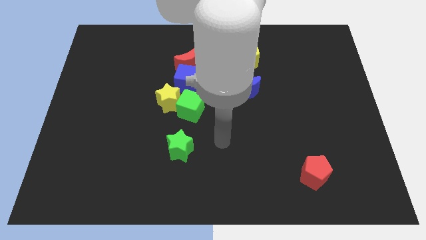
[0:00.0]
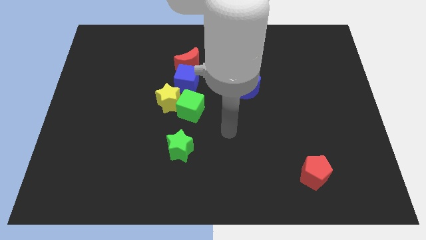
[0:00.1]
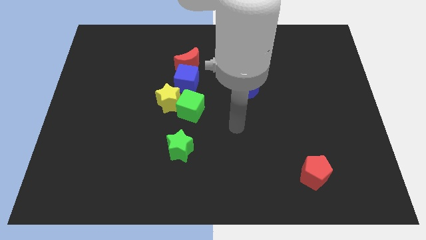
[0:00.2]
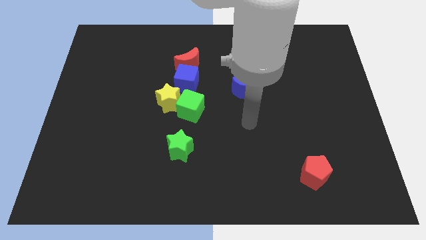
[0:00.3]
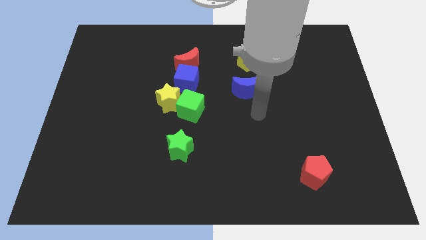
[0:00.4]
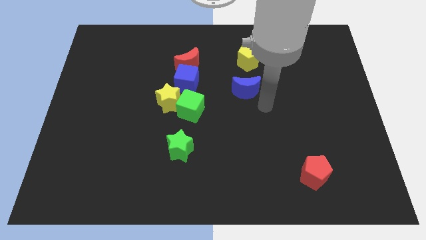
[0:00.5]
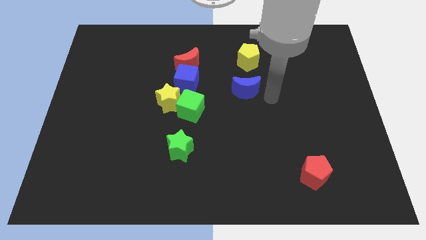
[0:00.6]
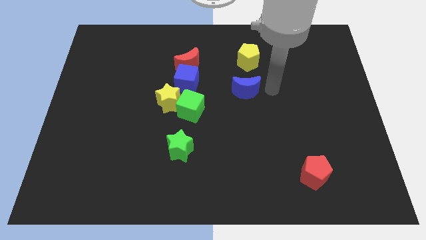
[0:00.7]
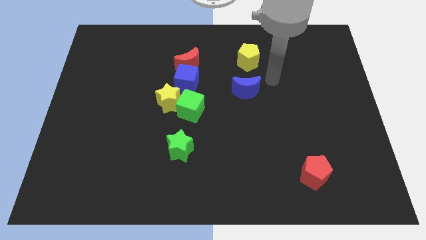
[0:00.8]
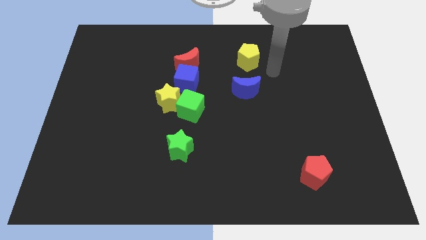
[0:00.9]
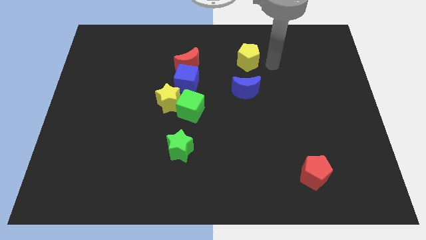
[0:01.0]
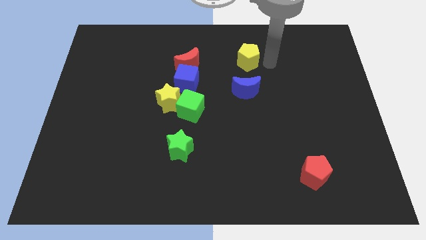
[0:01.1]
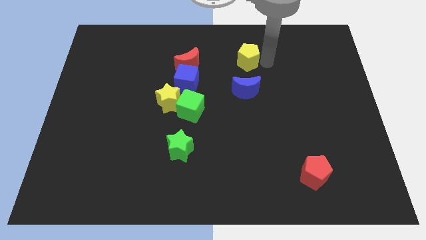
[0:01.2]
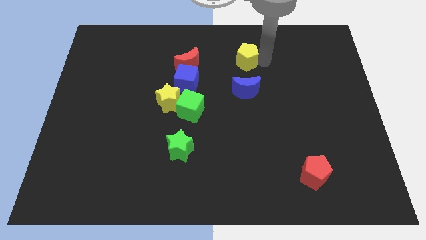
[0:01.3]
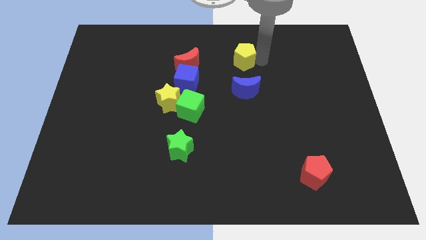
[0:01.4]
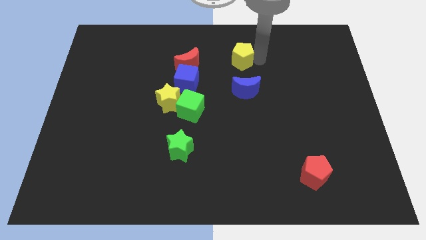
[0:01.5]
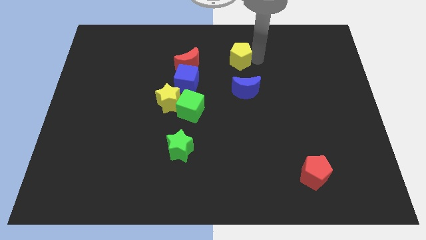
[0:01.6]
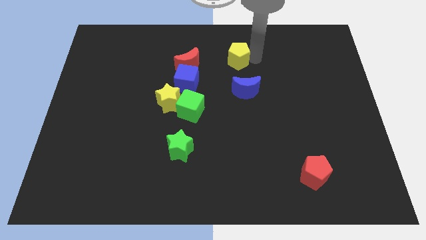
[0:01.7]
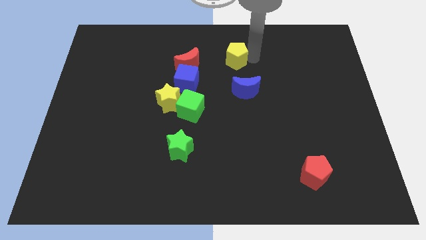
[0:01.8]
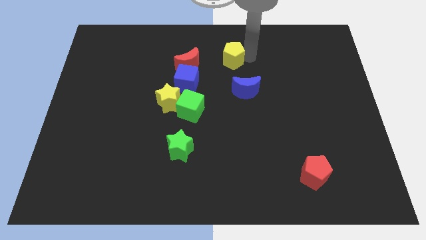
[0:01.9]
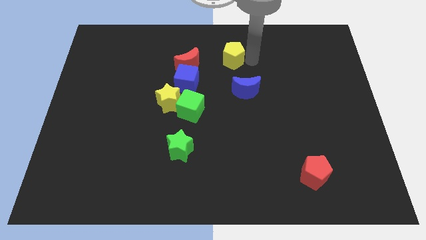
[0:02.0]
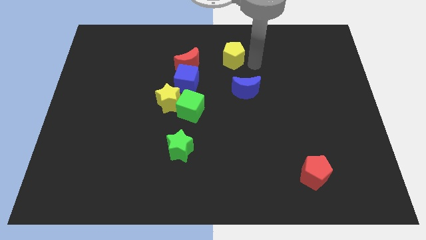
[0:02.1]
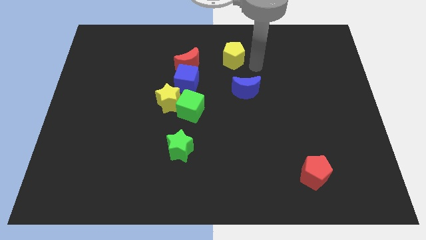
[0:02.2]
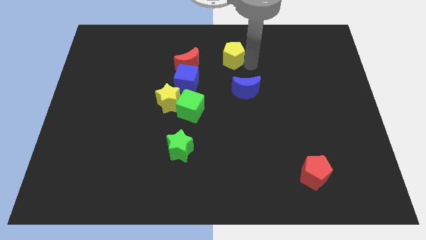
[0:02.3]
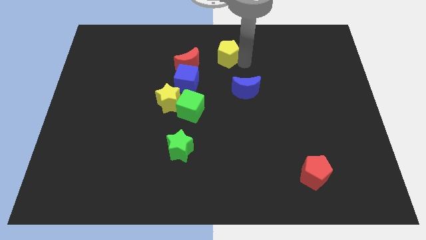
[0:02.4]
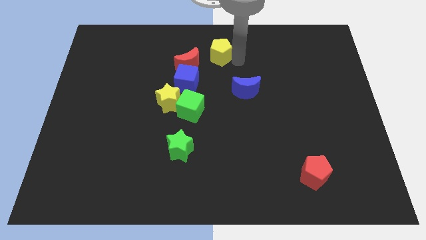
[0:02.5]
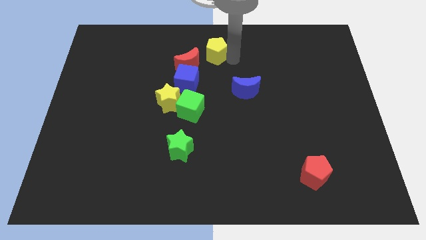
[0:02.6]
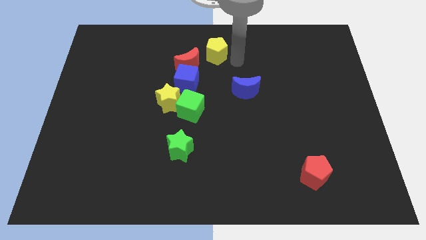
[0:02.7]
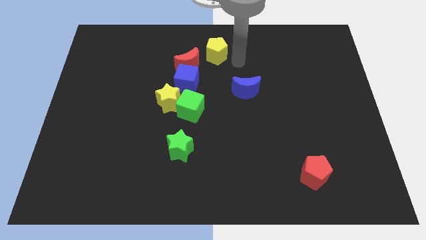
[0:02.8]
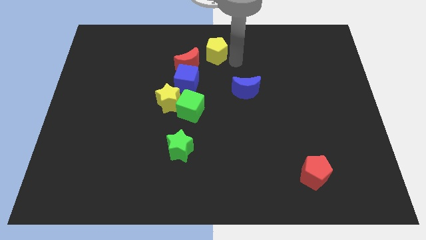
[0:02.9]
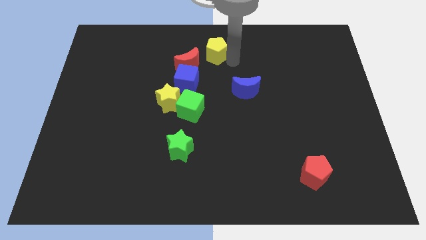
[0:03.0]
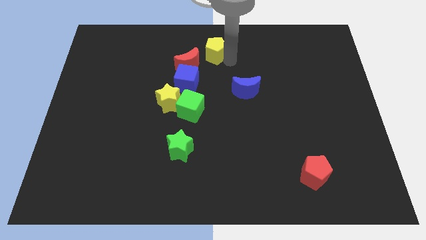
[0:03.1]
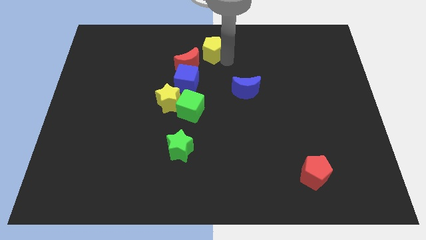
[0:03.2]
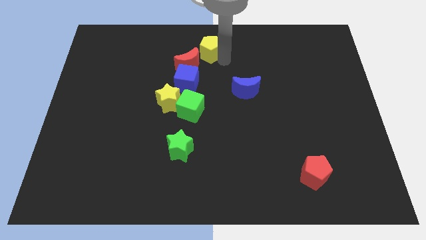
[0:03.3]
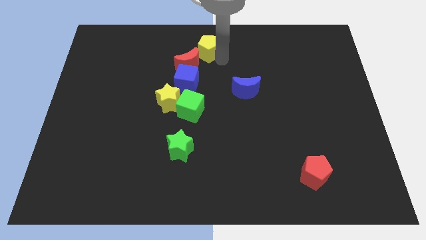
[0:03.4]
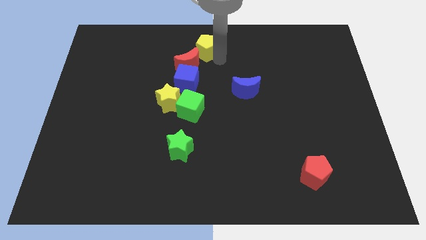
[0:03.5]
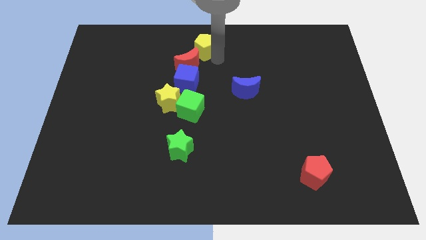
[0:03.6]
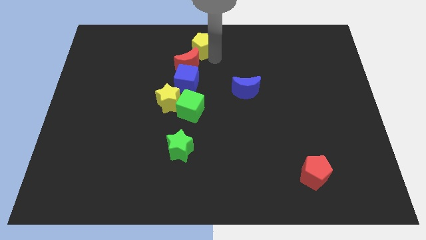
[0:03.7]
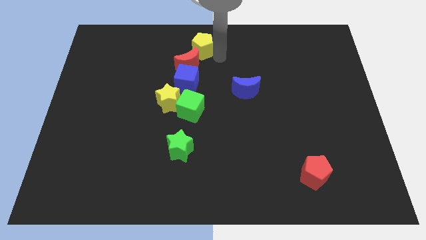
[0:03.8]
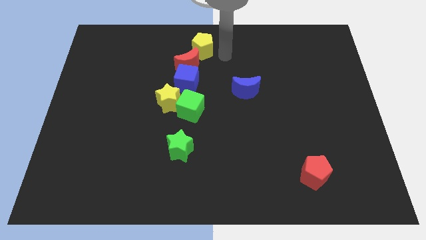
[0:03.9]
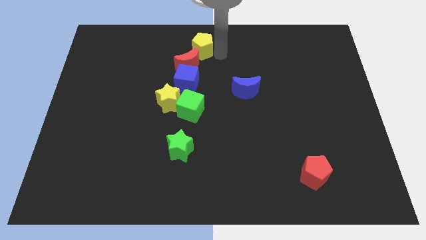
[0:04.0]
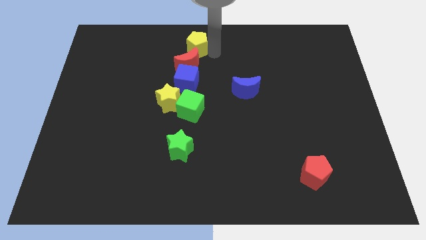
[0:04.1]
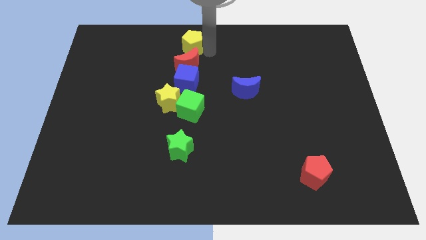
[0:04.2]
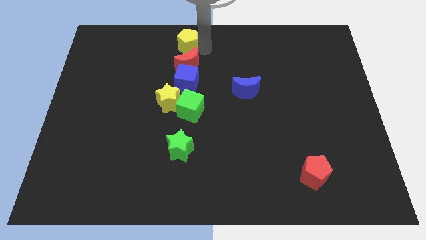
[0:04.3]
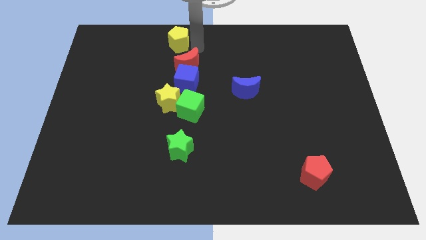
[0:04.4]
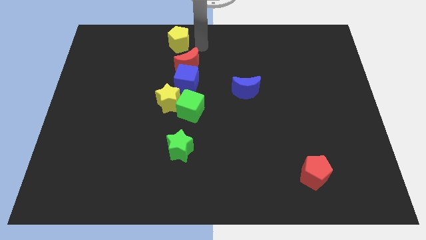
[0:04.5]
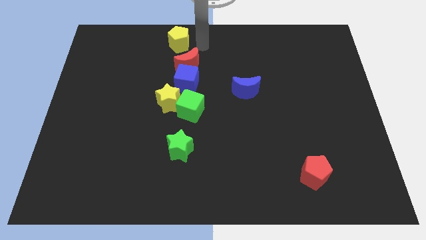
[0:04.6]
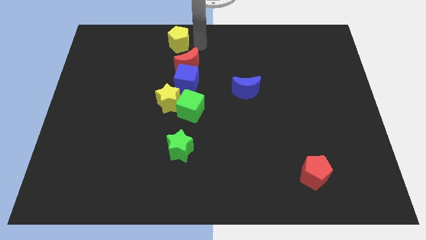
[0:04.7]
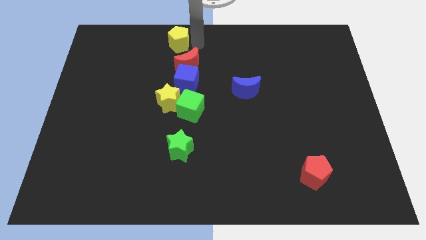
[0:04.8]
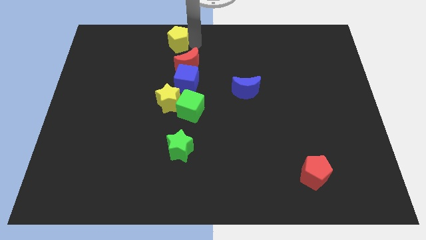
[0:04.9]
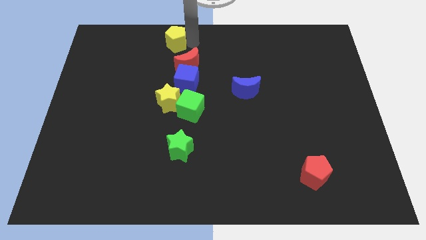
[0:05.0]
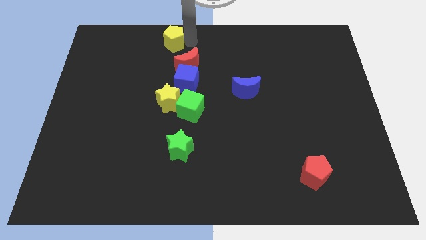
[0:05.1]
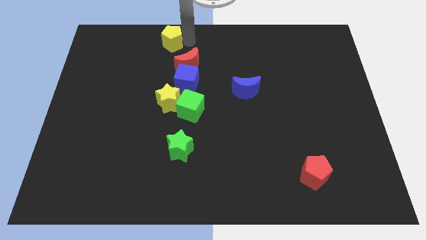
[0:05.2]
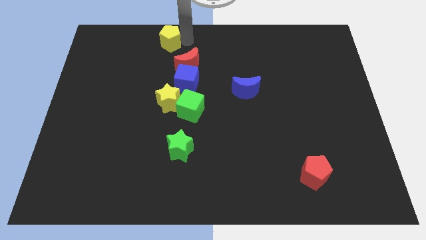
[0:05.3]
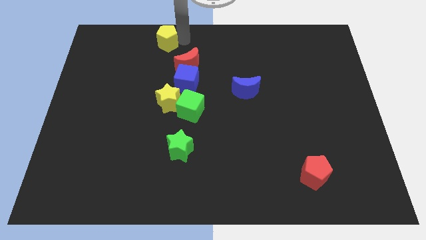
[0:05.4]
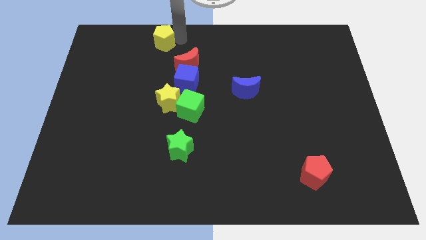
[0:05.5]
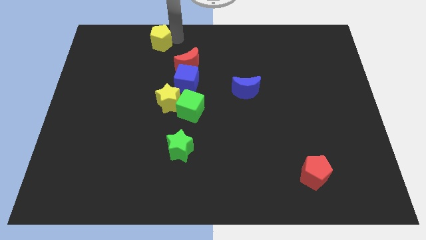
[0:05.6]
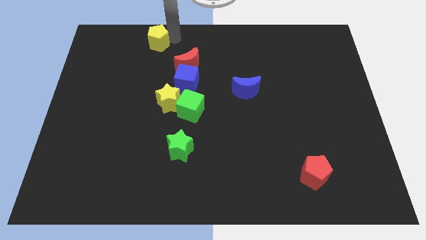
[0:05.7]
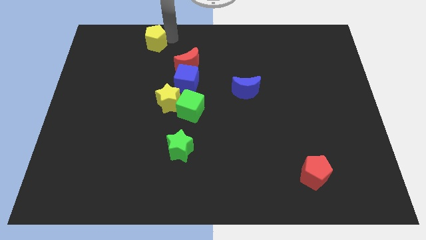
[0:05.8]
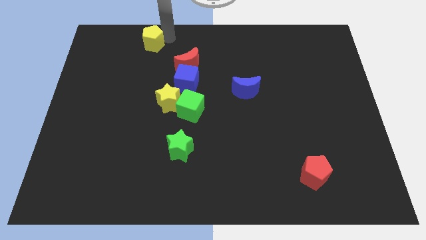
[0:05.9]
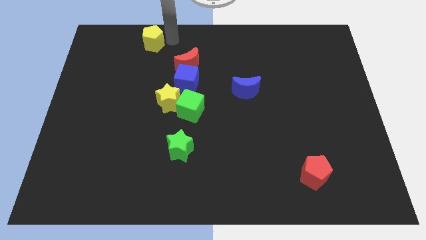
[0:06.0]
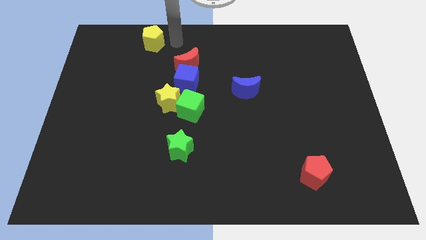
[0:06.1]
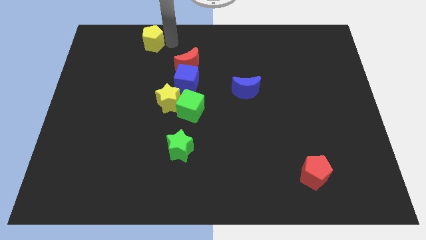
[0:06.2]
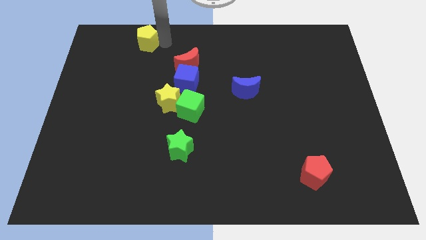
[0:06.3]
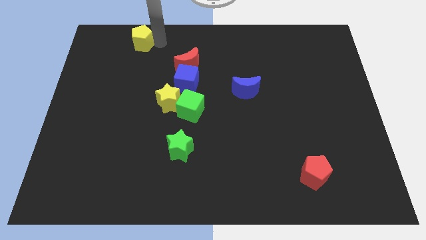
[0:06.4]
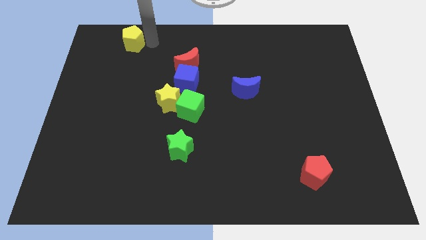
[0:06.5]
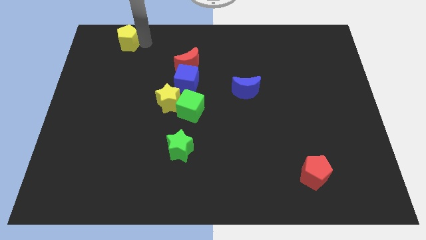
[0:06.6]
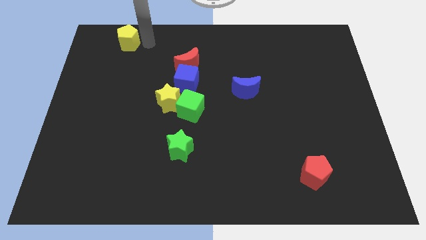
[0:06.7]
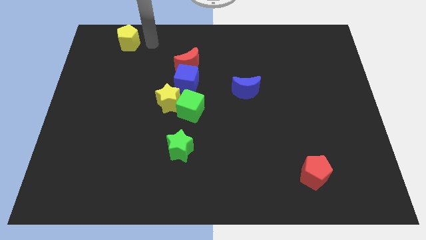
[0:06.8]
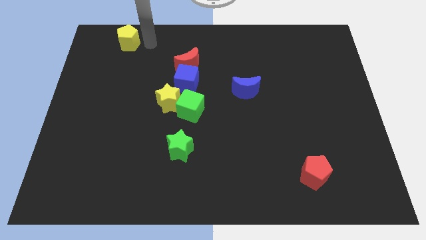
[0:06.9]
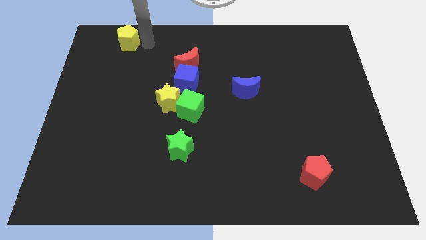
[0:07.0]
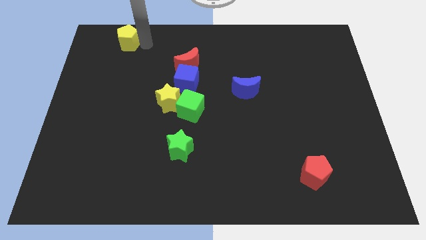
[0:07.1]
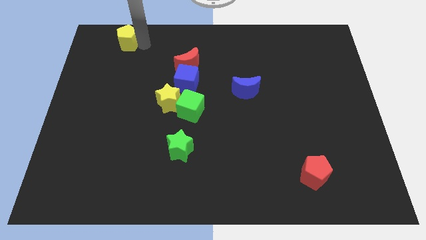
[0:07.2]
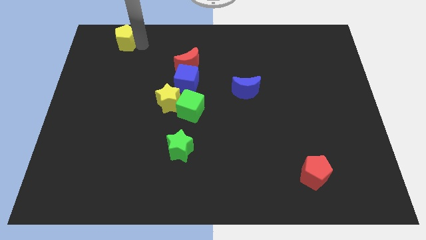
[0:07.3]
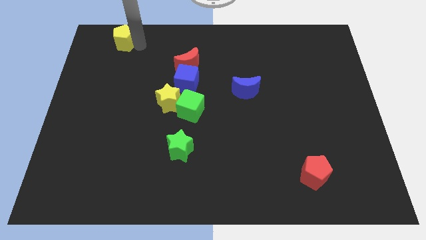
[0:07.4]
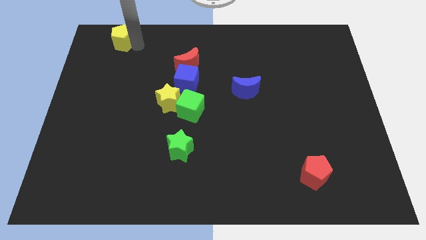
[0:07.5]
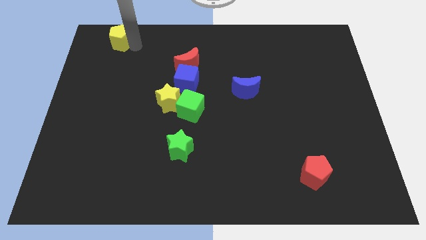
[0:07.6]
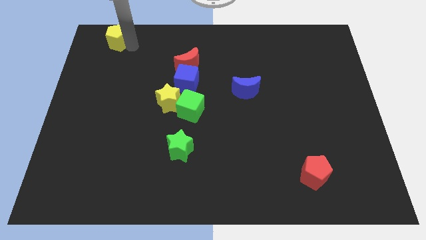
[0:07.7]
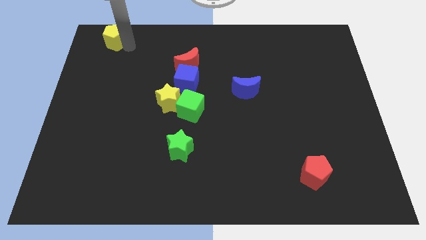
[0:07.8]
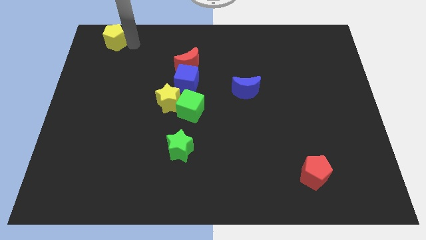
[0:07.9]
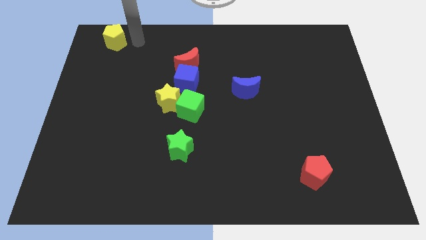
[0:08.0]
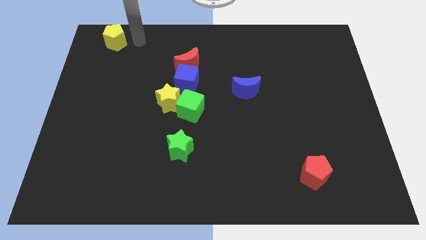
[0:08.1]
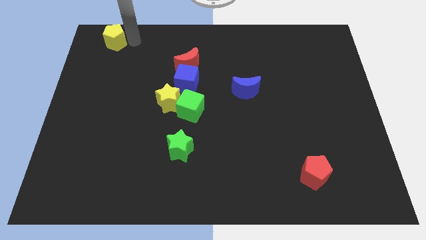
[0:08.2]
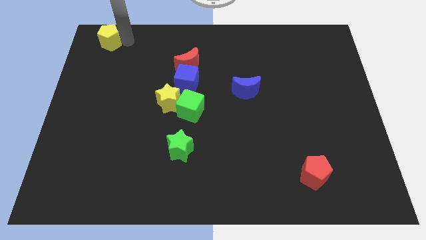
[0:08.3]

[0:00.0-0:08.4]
push the yellow pentagon to the top left corner
